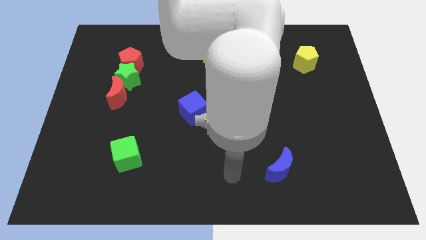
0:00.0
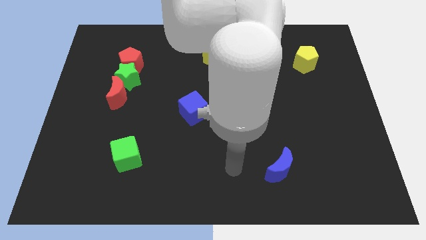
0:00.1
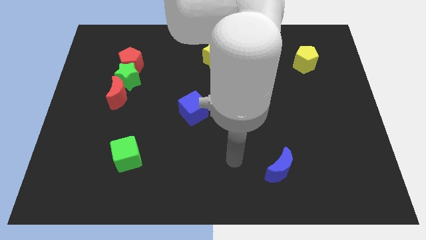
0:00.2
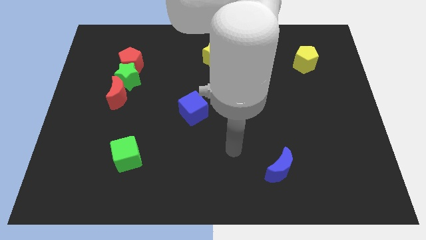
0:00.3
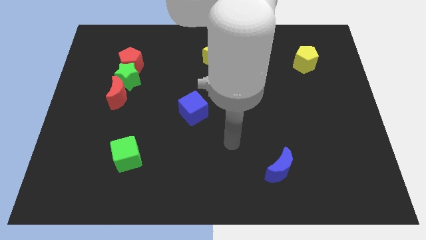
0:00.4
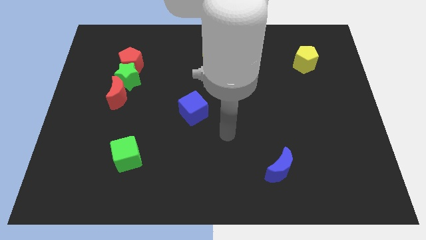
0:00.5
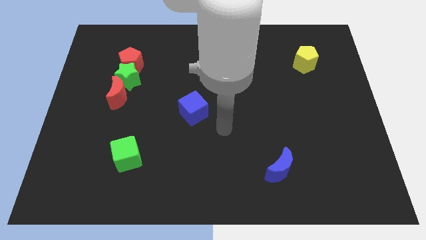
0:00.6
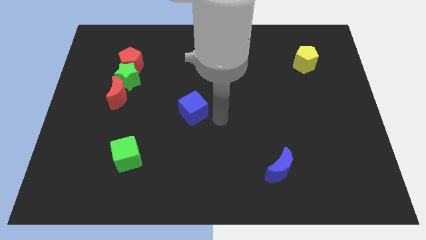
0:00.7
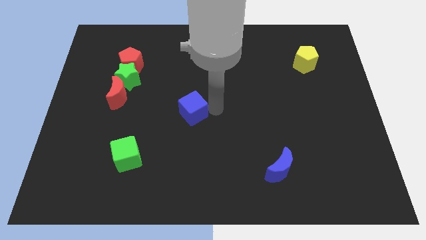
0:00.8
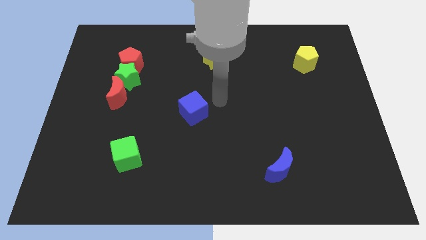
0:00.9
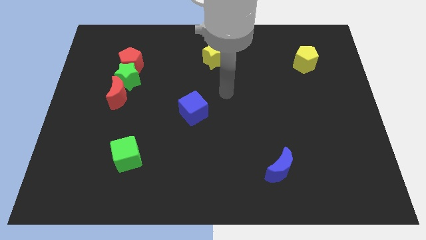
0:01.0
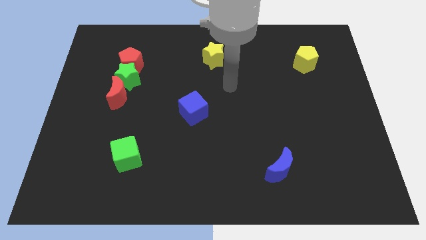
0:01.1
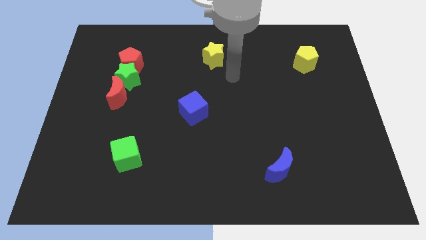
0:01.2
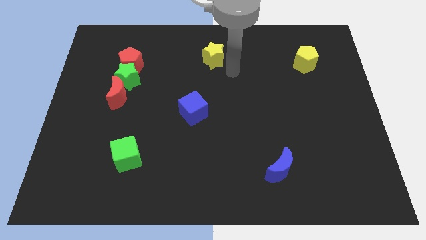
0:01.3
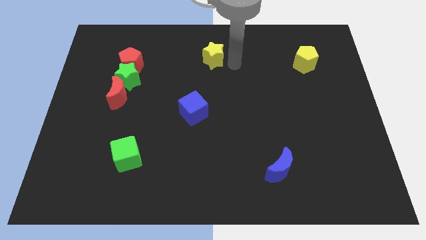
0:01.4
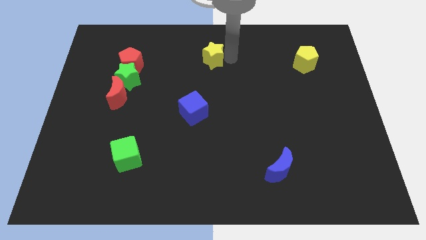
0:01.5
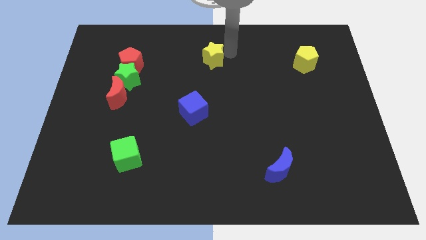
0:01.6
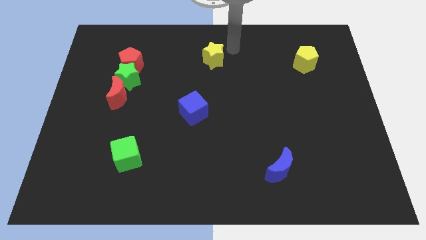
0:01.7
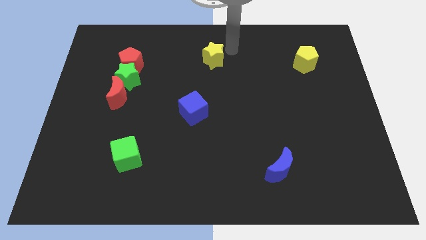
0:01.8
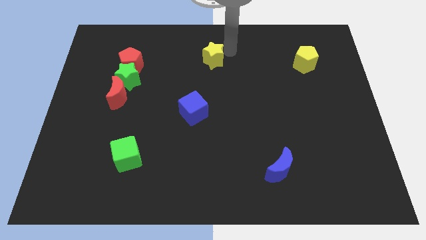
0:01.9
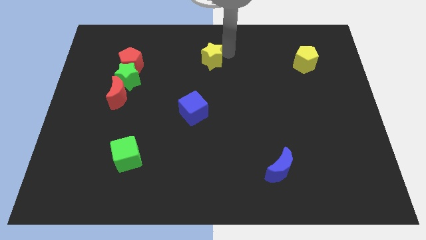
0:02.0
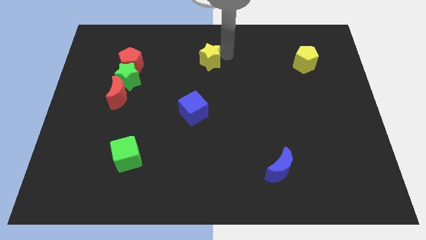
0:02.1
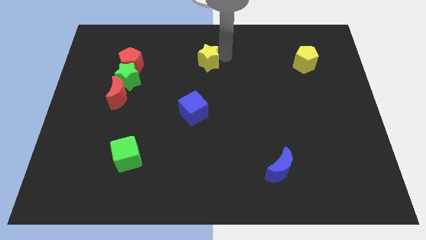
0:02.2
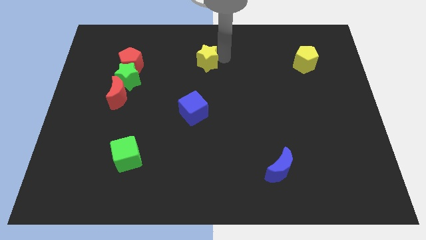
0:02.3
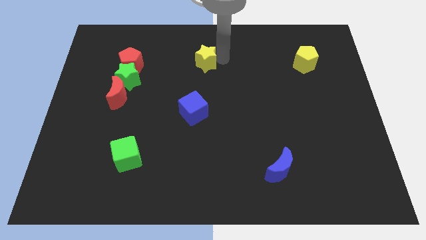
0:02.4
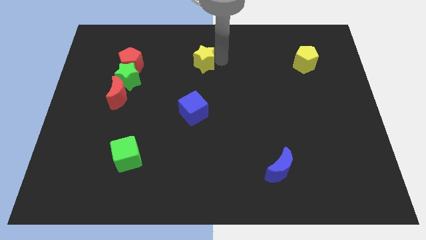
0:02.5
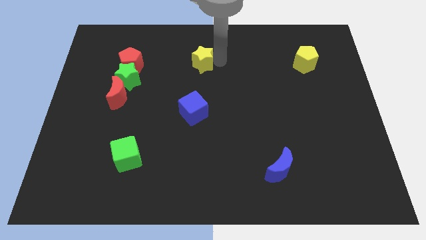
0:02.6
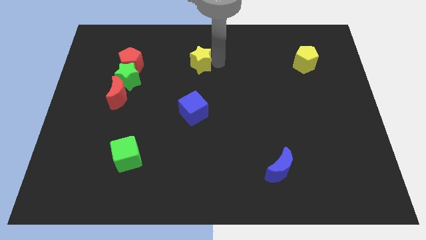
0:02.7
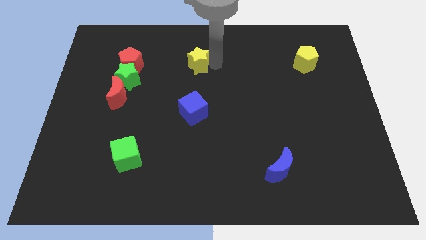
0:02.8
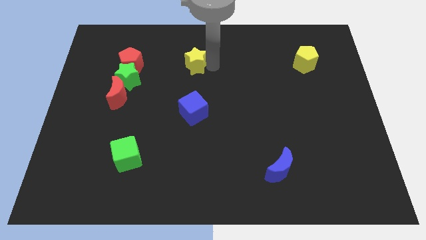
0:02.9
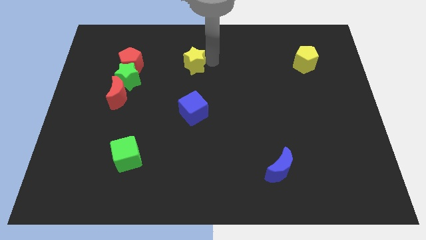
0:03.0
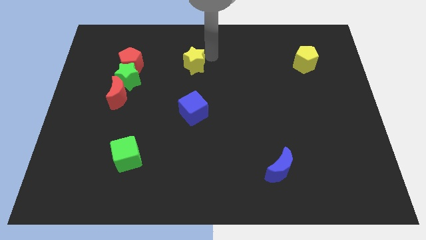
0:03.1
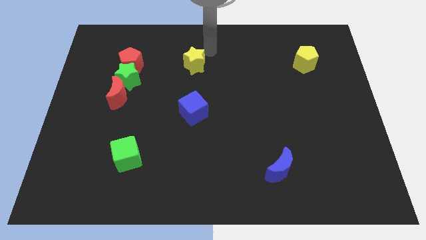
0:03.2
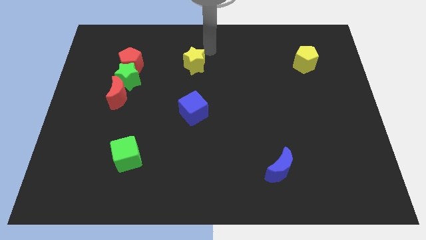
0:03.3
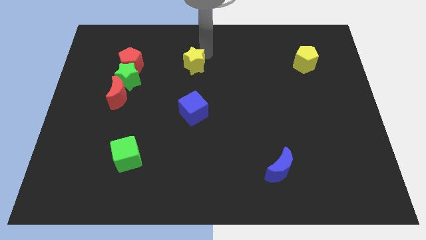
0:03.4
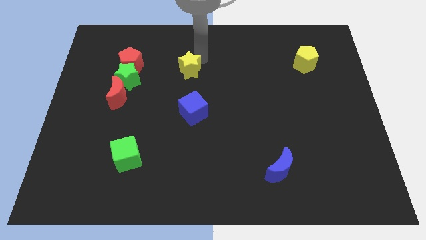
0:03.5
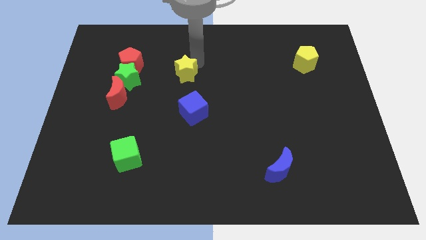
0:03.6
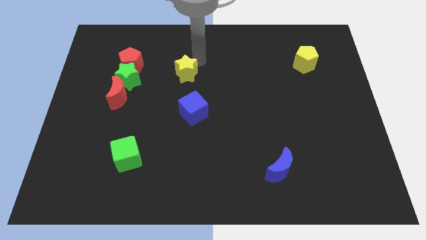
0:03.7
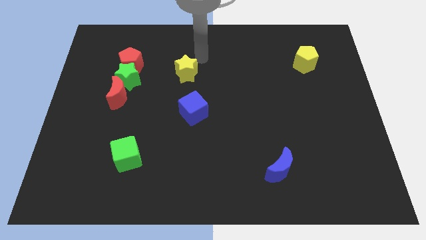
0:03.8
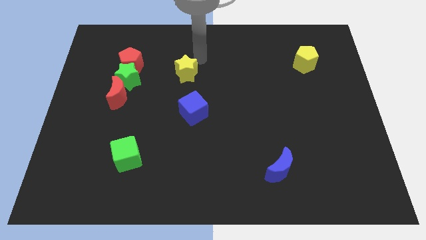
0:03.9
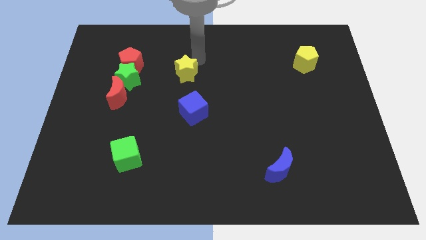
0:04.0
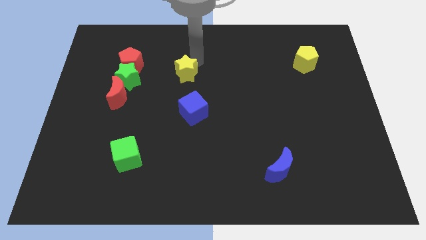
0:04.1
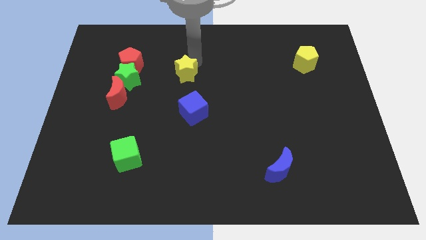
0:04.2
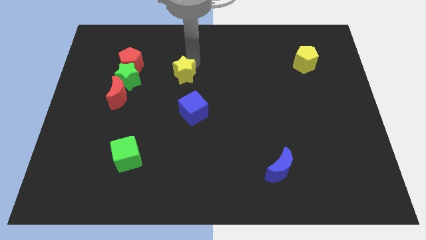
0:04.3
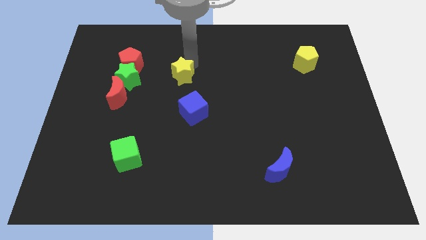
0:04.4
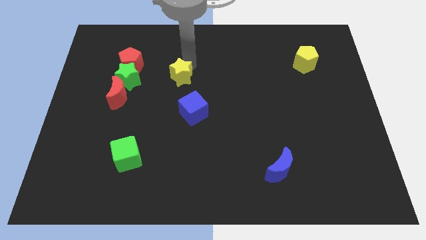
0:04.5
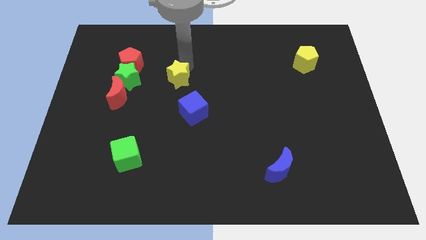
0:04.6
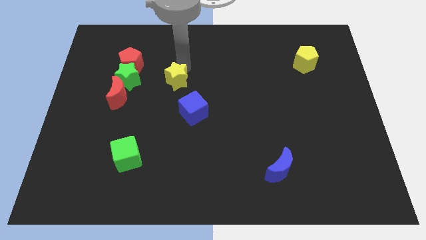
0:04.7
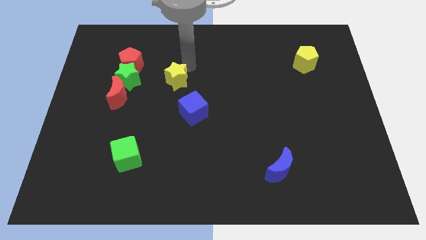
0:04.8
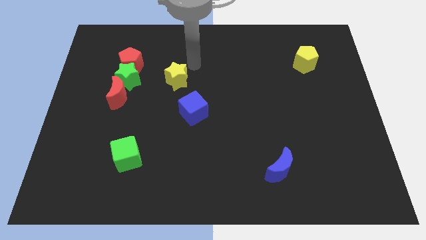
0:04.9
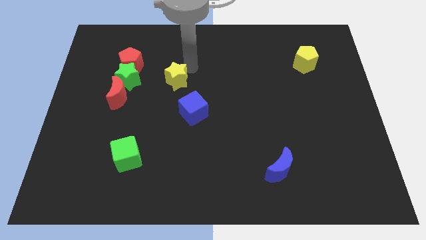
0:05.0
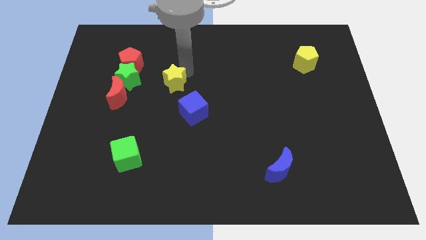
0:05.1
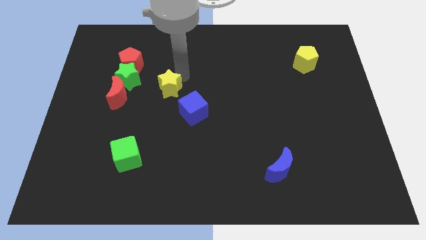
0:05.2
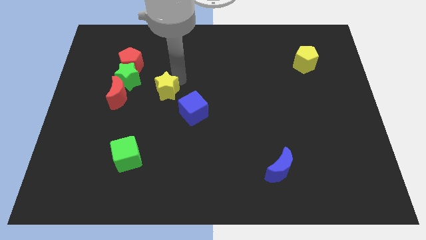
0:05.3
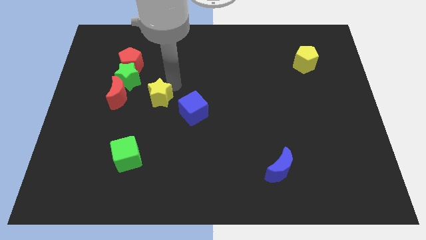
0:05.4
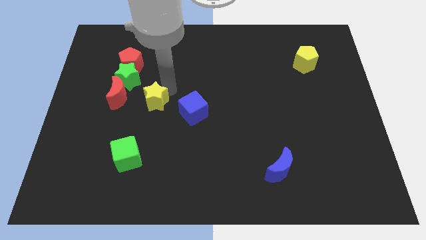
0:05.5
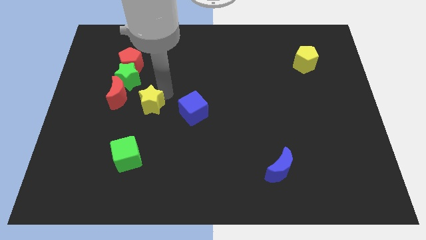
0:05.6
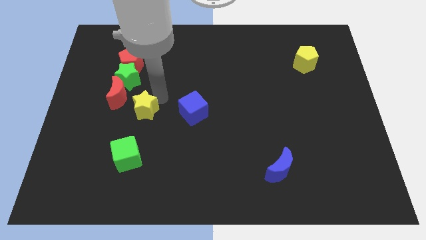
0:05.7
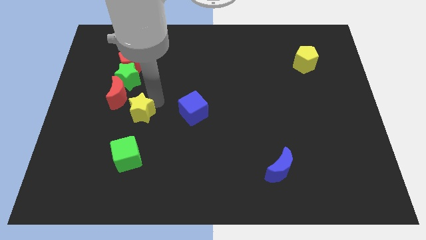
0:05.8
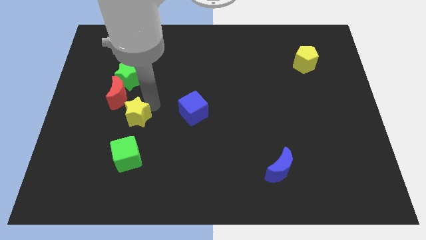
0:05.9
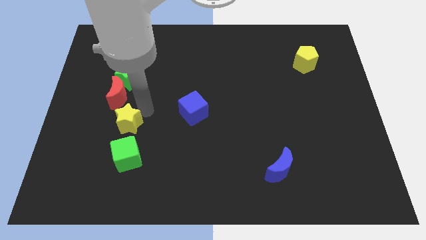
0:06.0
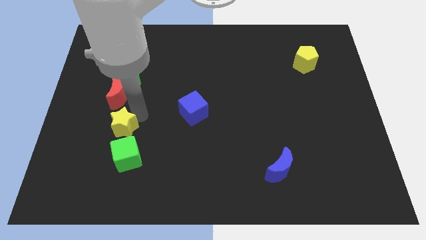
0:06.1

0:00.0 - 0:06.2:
slide the yellow star to the top left side of the green cube

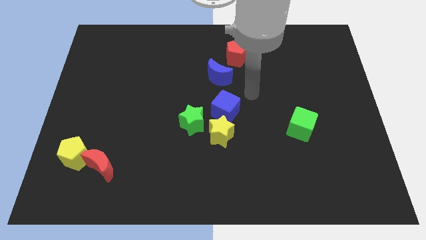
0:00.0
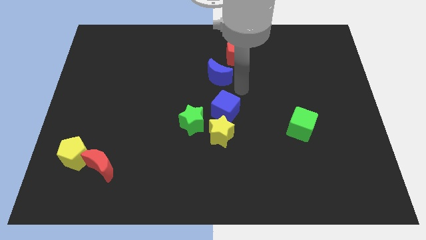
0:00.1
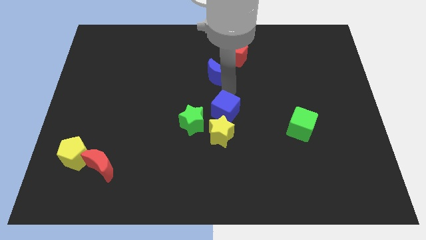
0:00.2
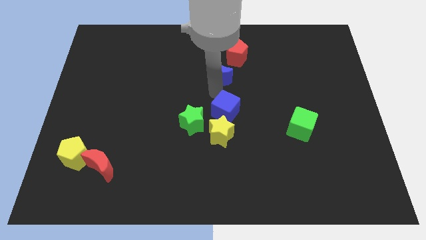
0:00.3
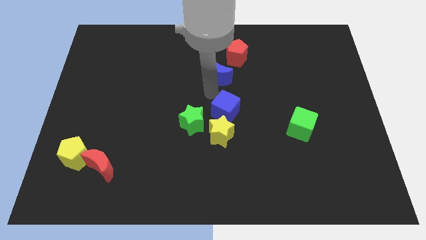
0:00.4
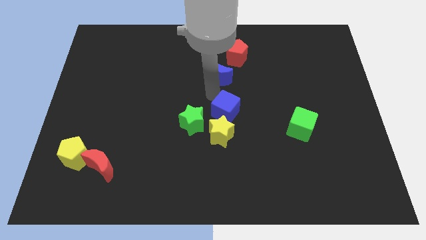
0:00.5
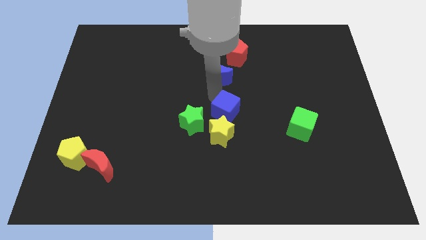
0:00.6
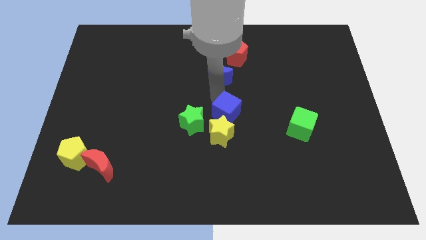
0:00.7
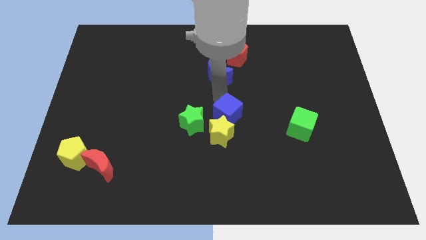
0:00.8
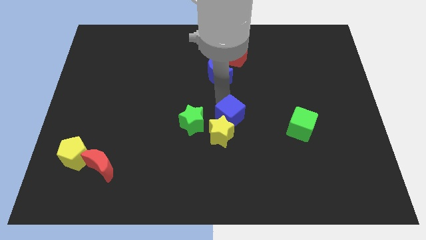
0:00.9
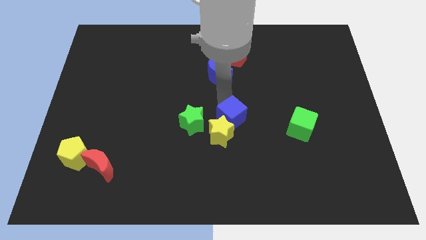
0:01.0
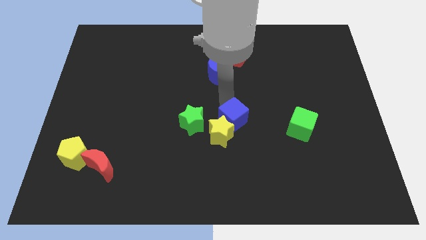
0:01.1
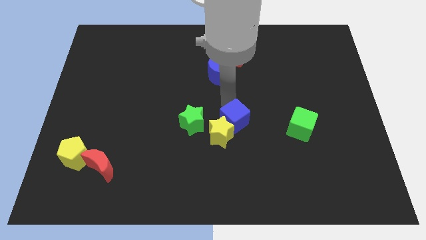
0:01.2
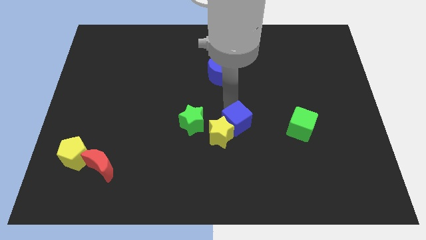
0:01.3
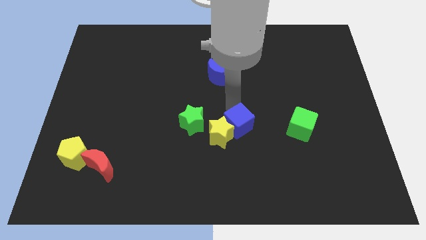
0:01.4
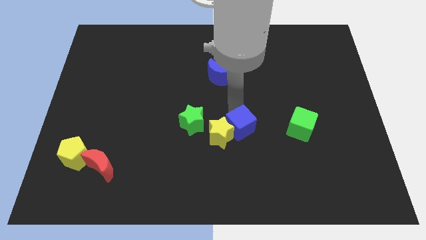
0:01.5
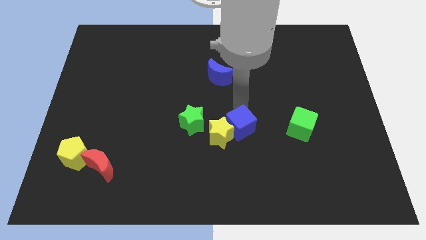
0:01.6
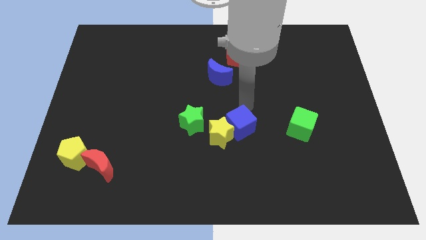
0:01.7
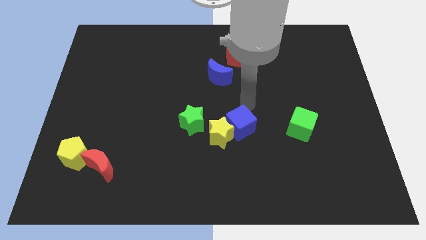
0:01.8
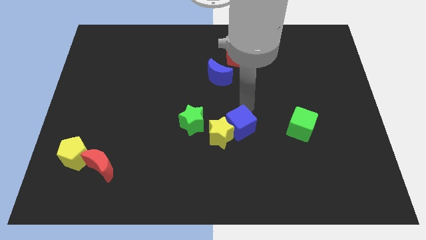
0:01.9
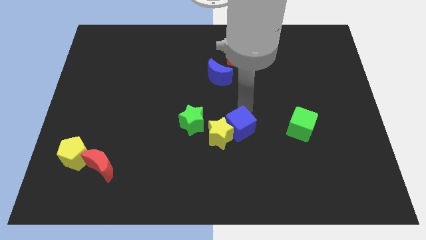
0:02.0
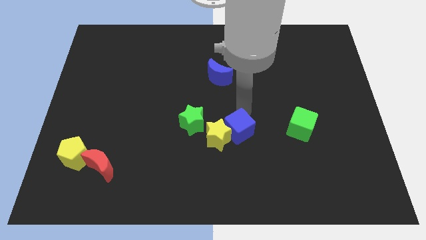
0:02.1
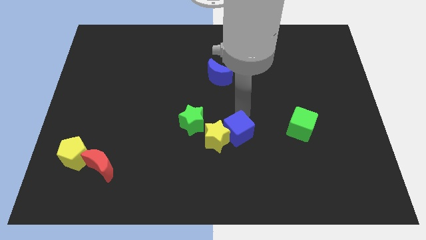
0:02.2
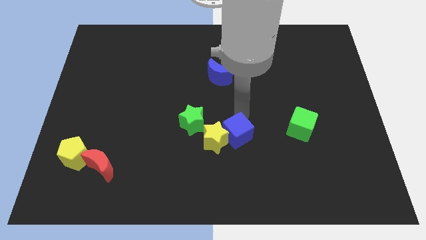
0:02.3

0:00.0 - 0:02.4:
put the blue cube diagonally down and to the right of the green star
